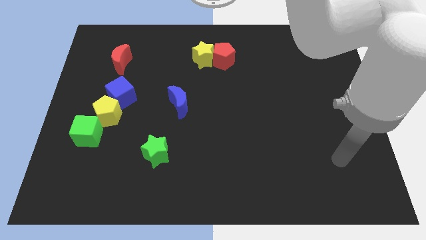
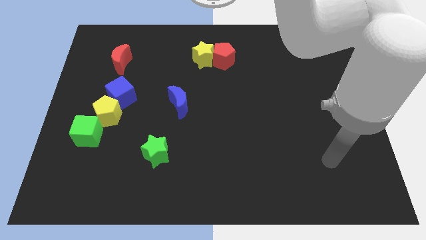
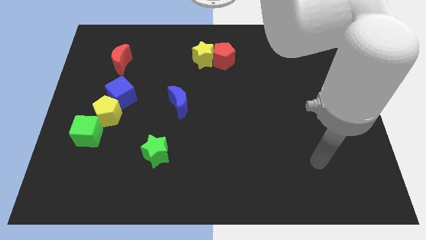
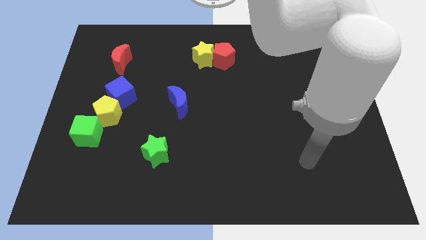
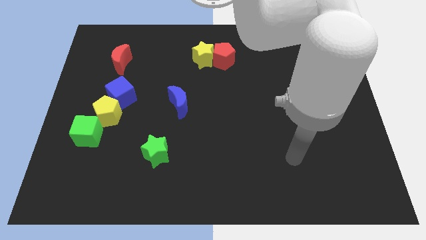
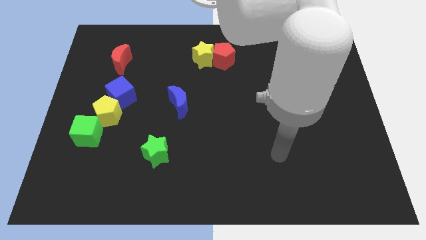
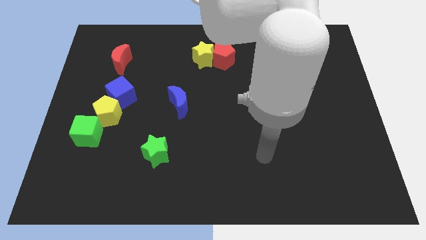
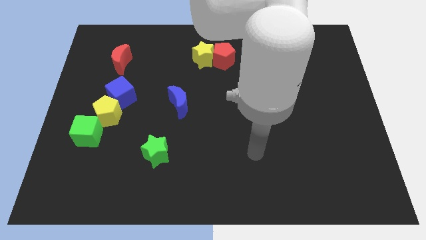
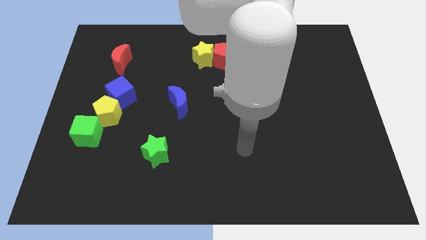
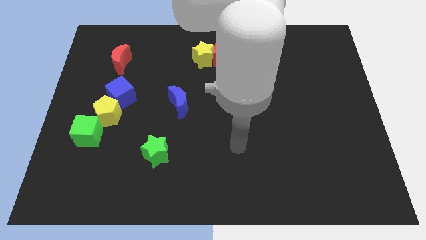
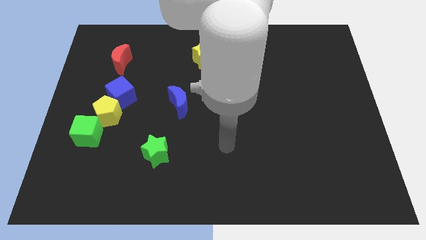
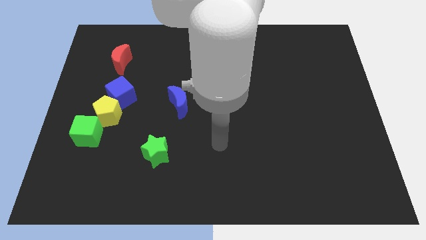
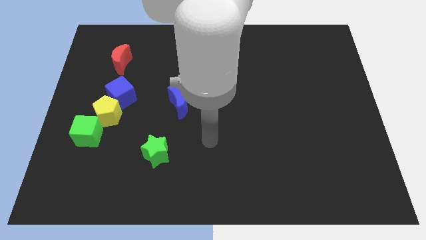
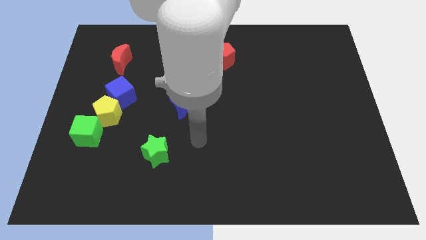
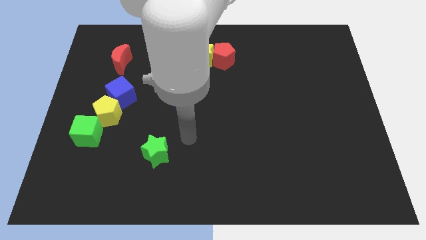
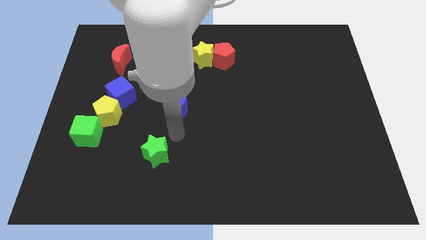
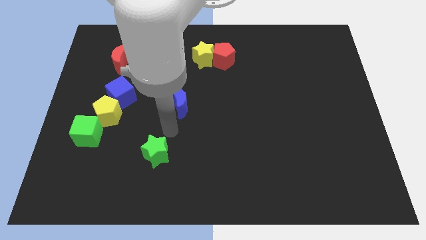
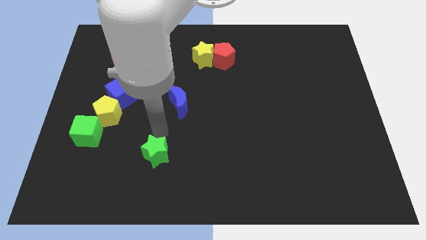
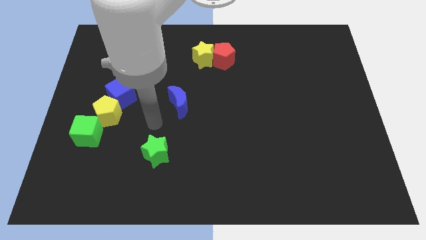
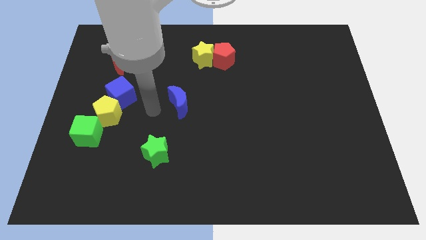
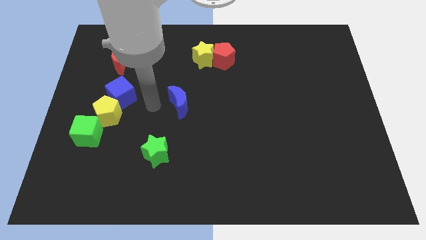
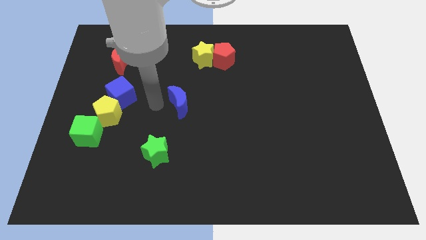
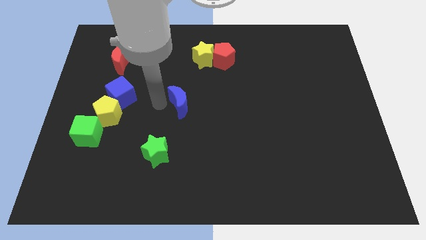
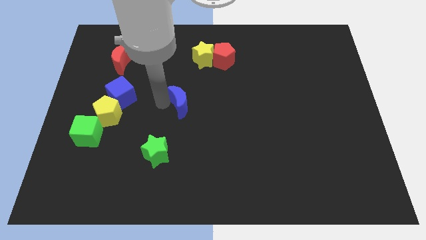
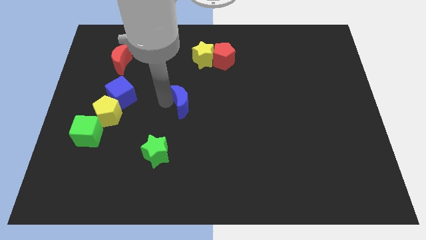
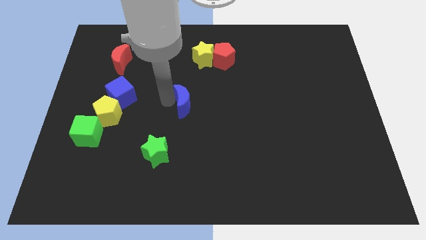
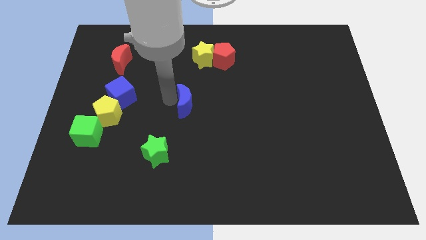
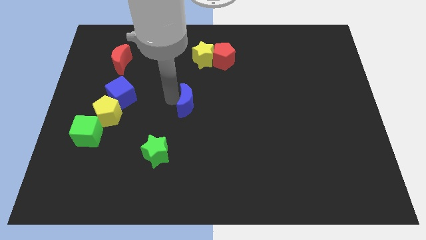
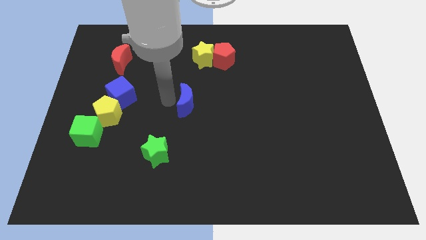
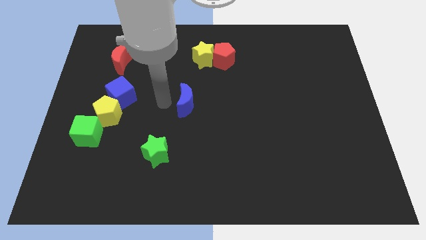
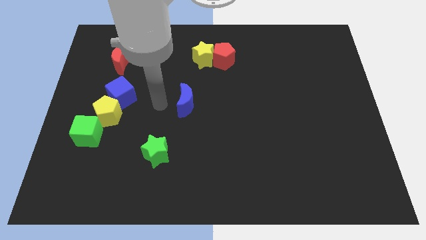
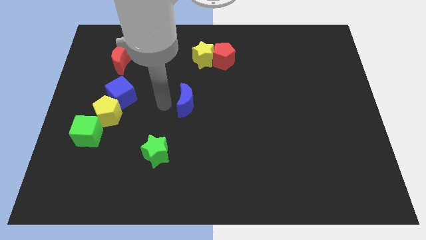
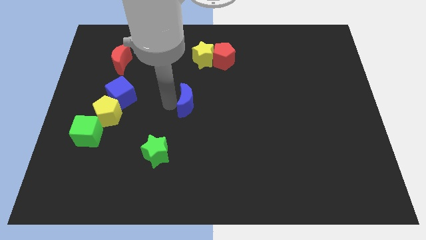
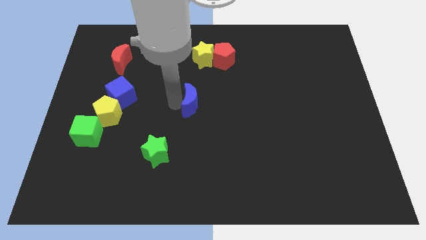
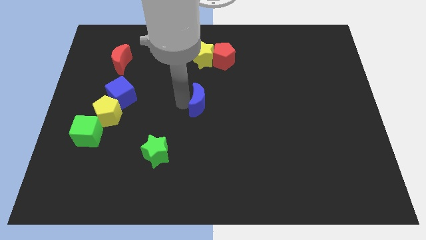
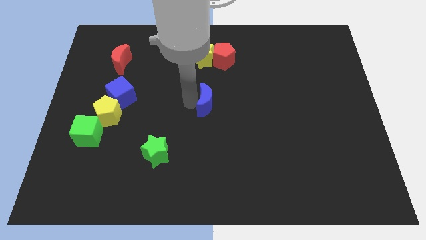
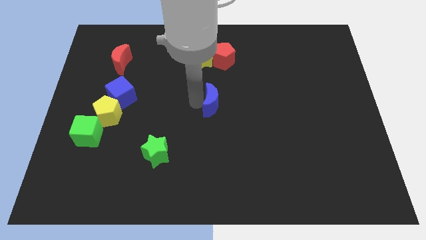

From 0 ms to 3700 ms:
slightly slide the blue moon right

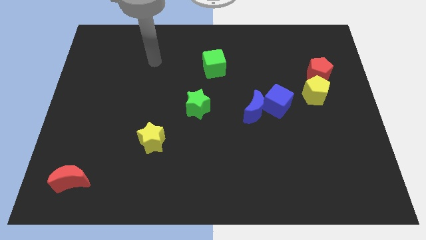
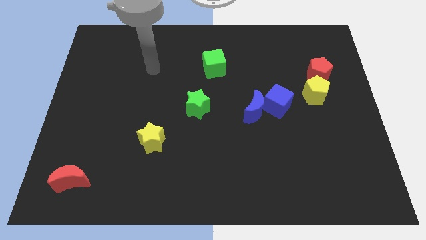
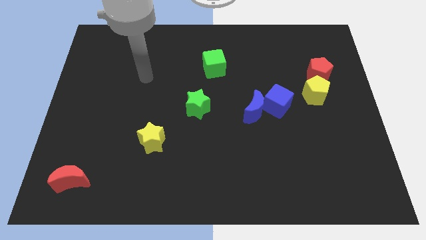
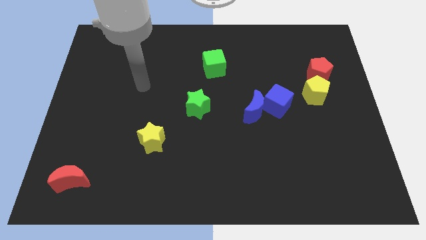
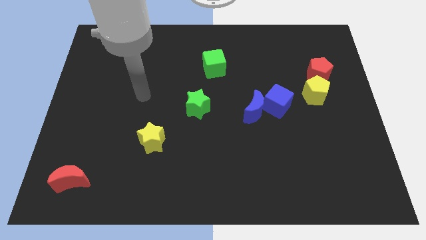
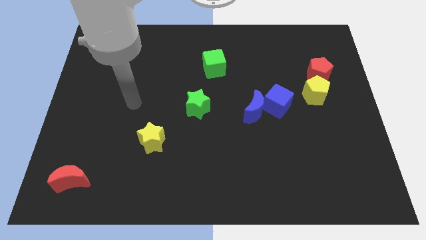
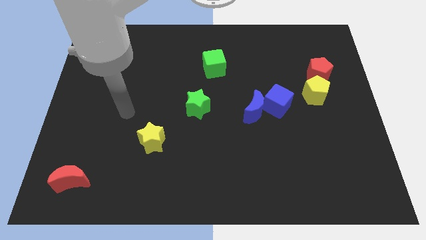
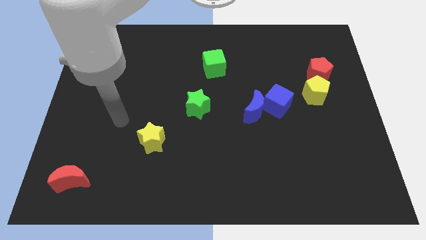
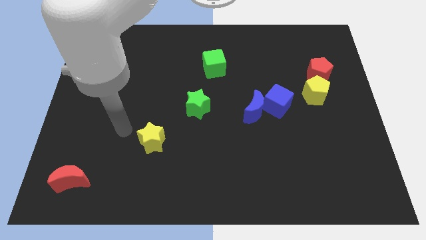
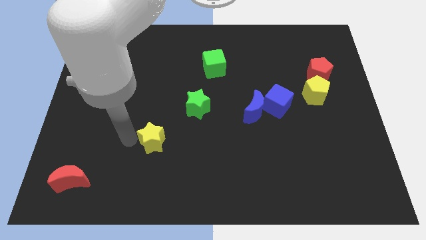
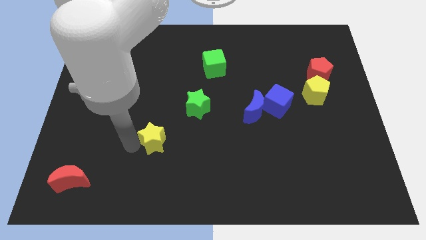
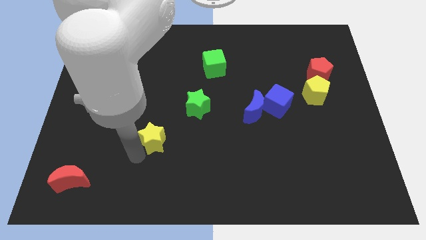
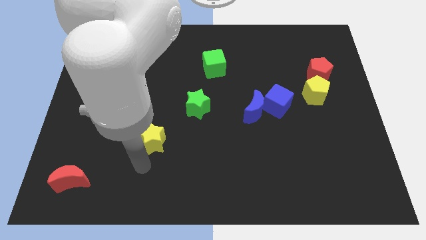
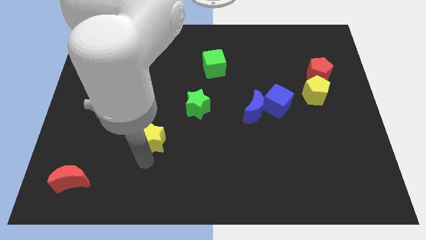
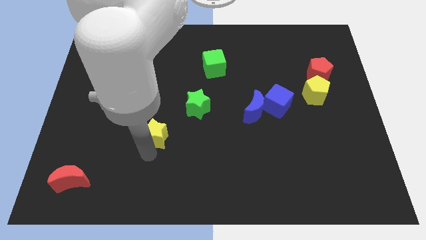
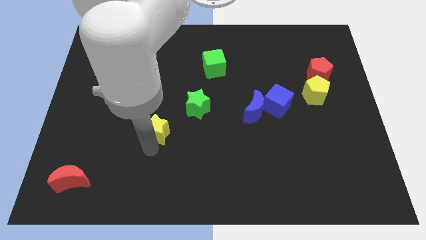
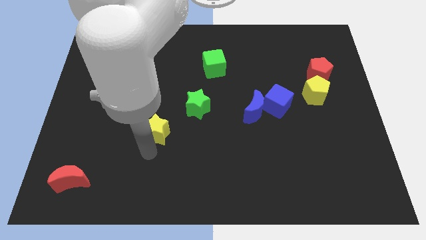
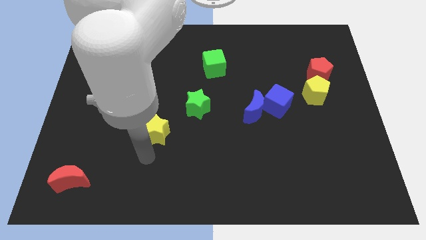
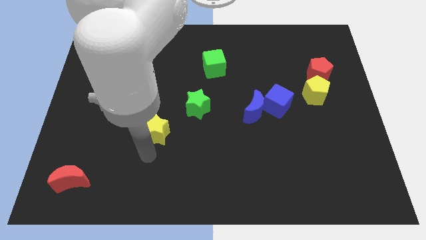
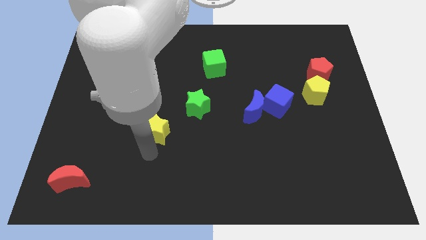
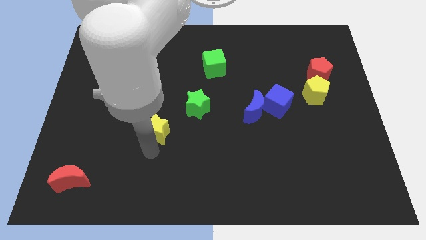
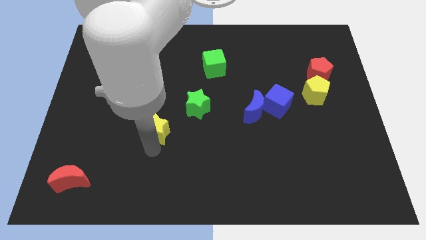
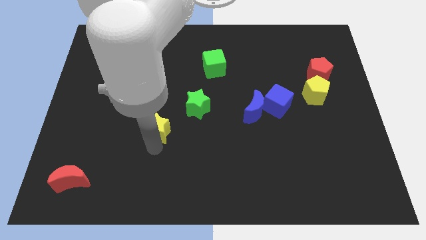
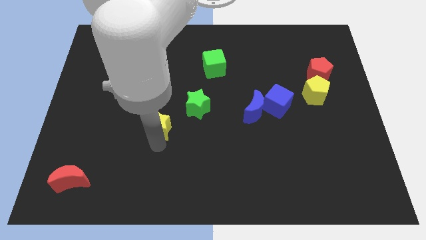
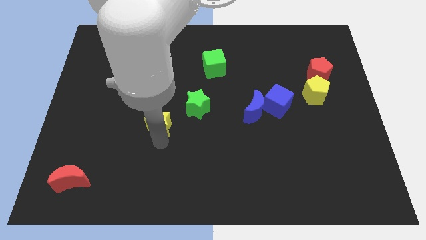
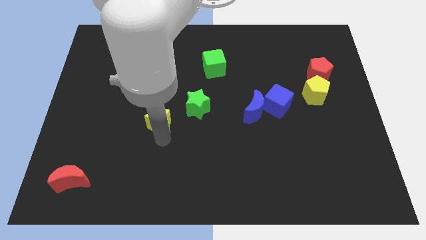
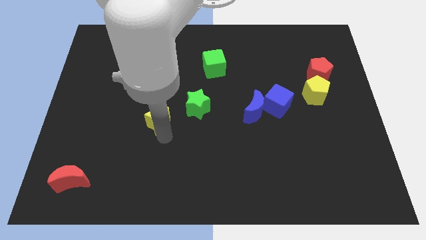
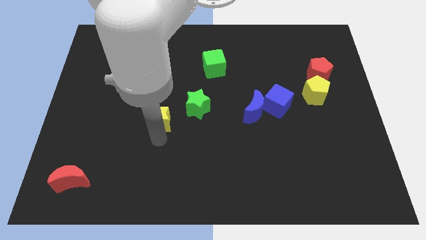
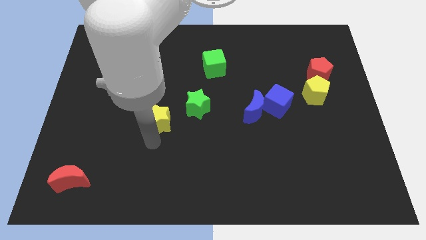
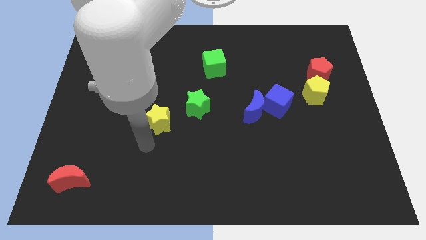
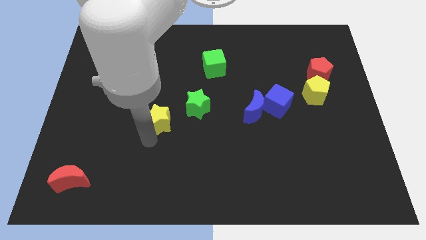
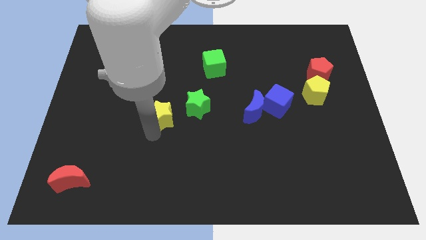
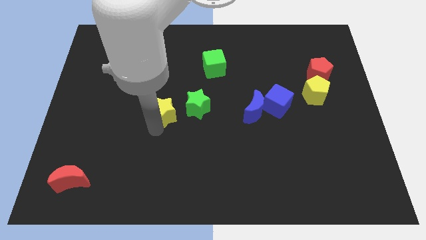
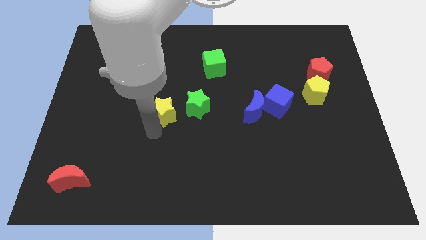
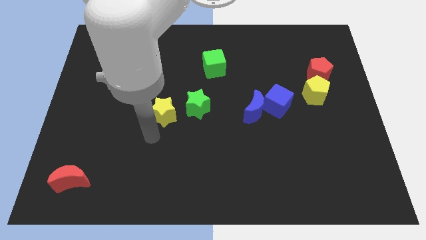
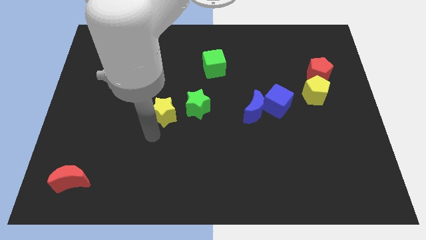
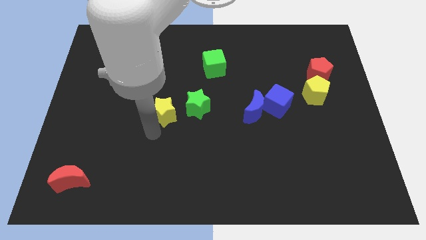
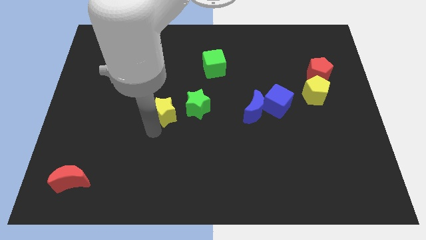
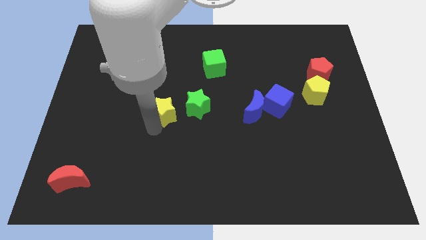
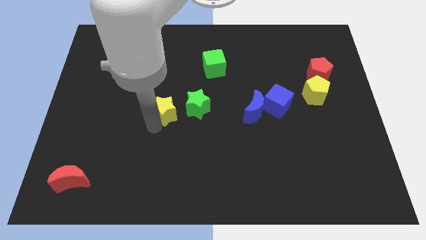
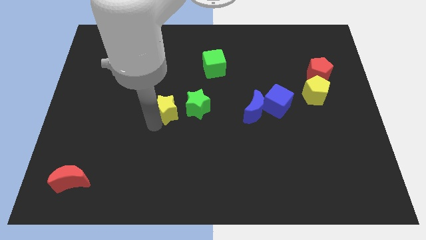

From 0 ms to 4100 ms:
slightly move the yellow star up and to the right diagonally

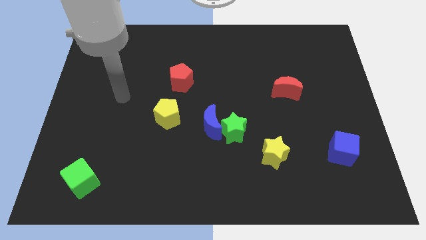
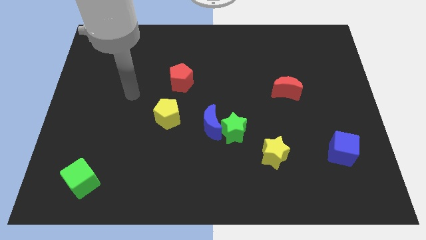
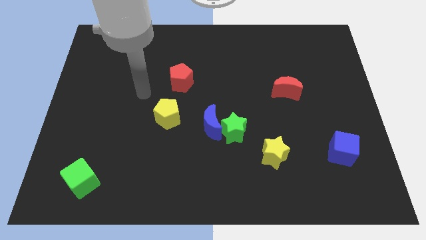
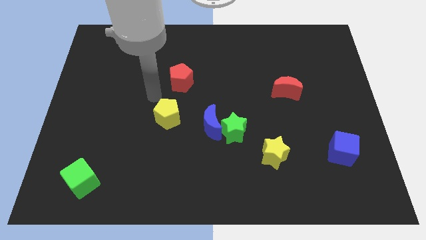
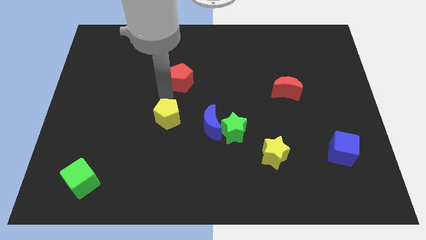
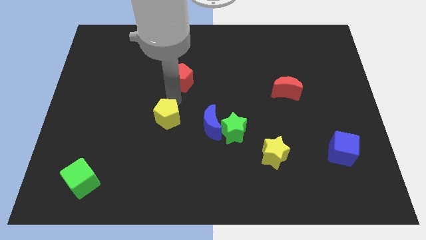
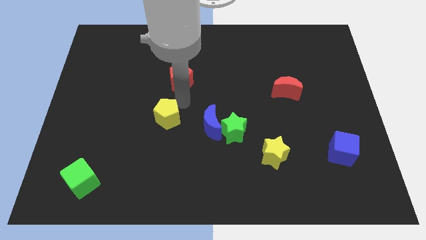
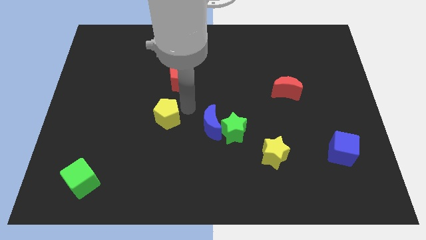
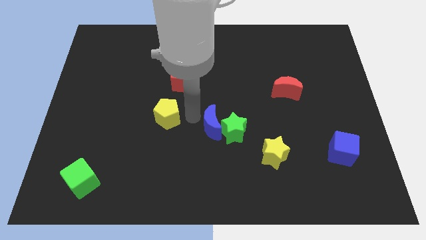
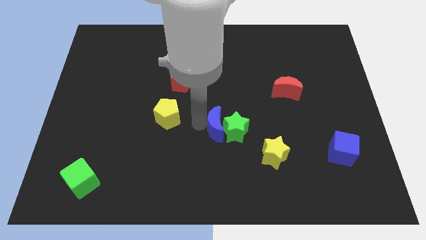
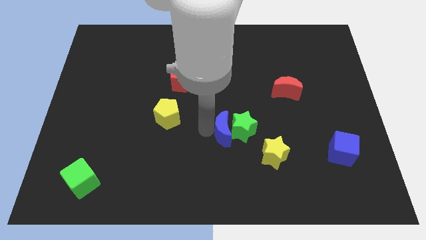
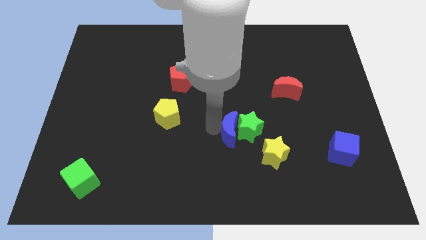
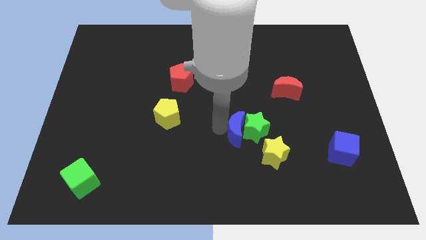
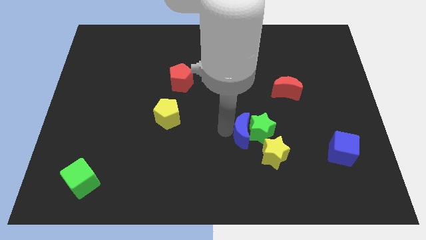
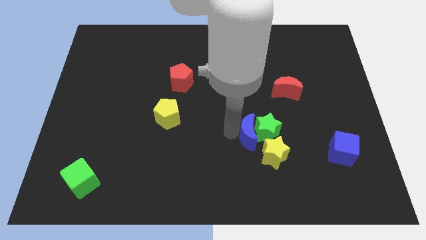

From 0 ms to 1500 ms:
move the green star to the right slightly
